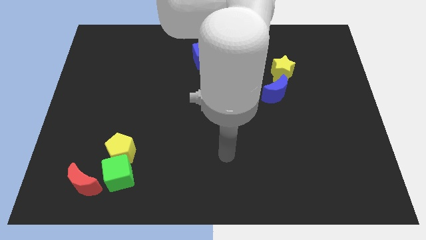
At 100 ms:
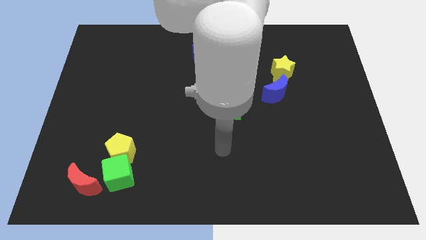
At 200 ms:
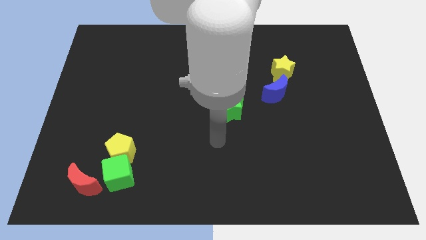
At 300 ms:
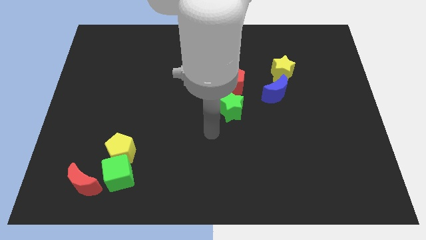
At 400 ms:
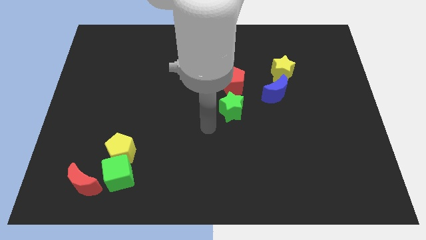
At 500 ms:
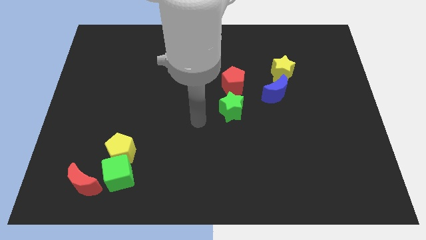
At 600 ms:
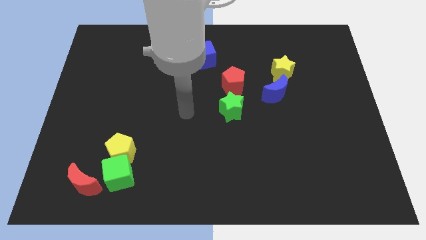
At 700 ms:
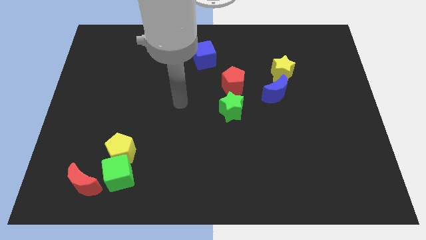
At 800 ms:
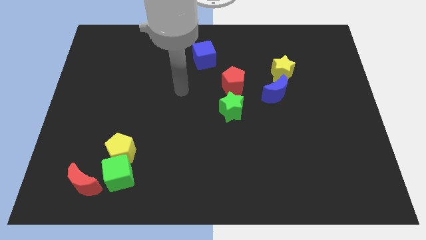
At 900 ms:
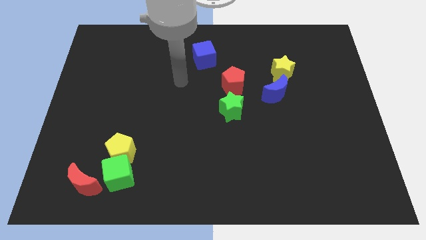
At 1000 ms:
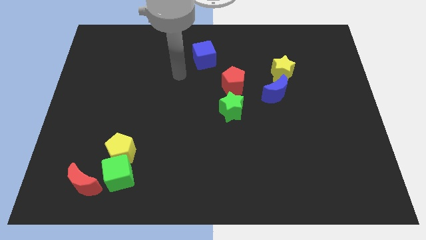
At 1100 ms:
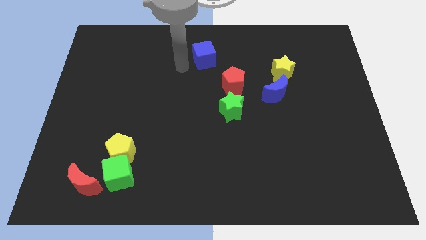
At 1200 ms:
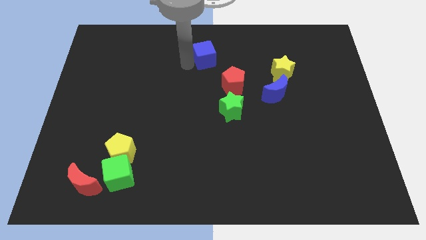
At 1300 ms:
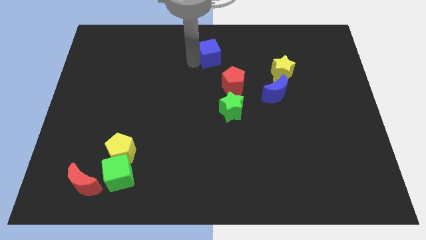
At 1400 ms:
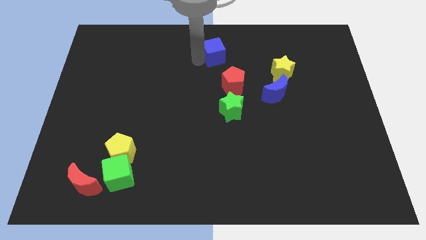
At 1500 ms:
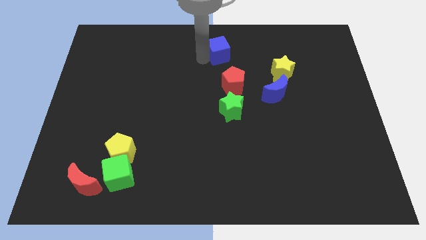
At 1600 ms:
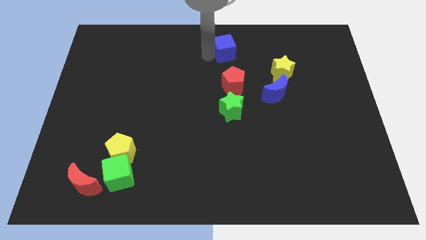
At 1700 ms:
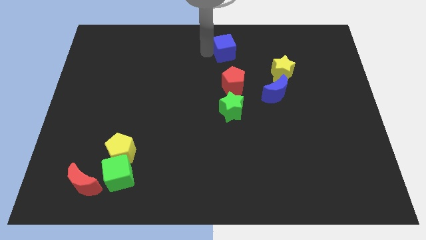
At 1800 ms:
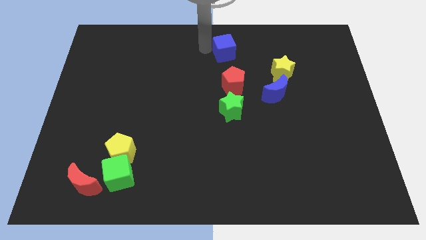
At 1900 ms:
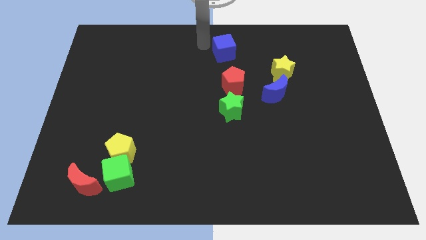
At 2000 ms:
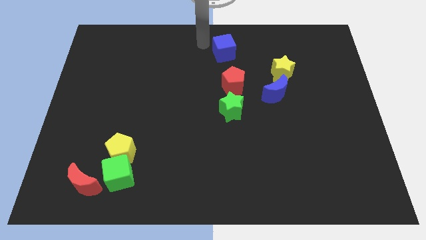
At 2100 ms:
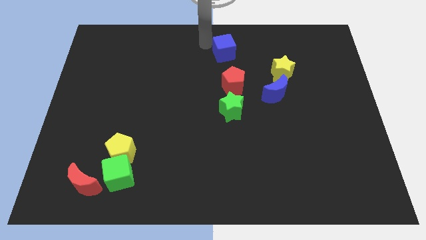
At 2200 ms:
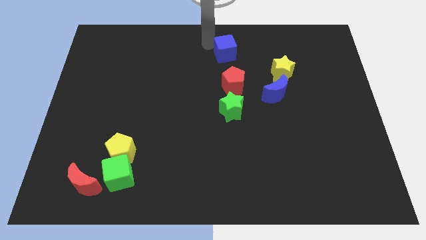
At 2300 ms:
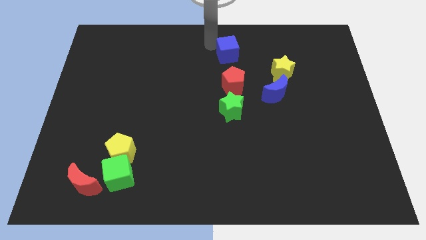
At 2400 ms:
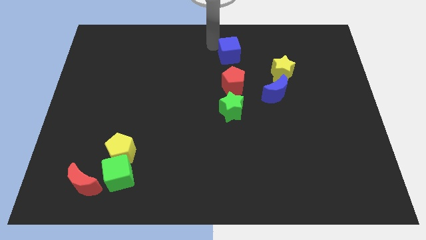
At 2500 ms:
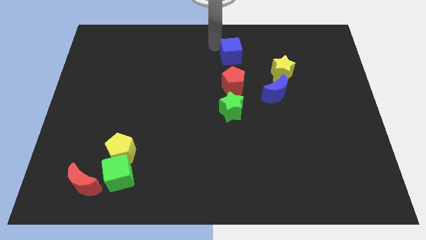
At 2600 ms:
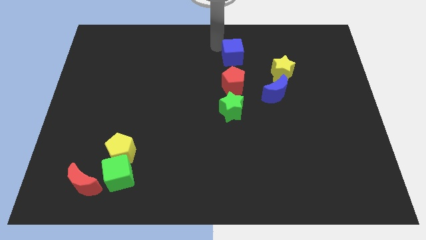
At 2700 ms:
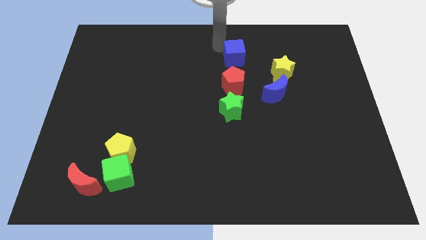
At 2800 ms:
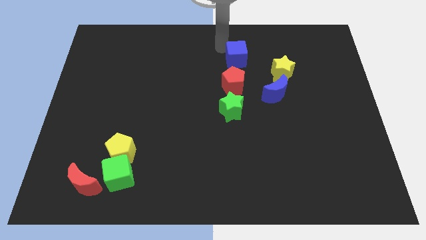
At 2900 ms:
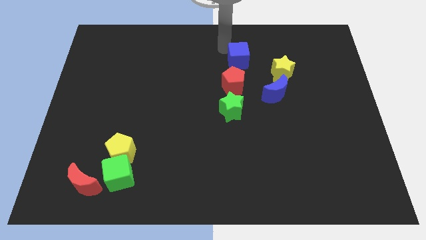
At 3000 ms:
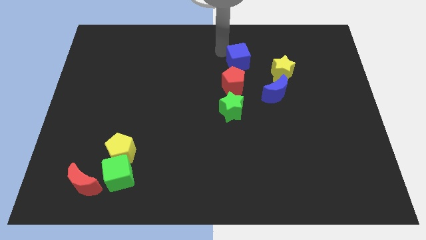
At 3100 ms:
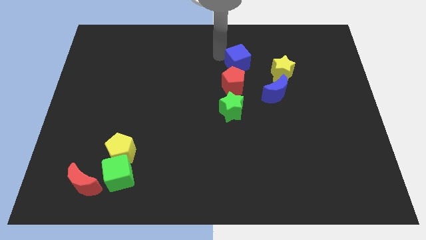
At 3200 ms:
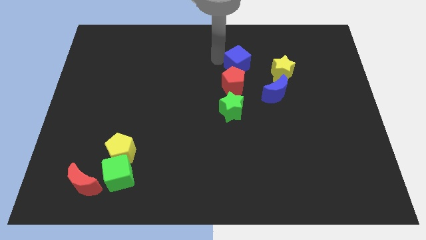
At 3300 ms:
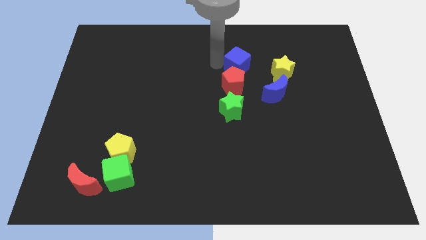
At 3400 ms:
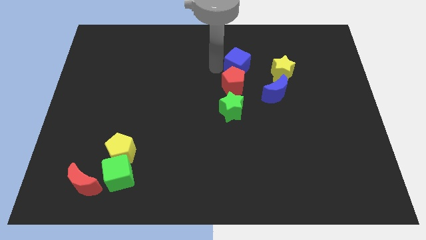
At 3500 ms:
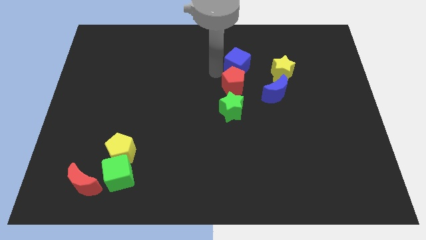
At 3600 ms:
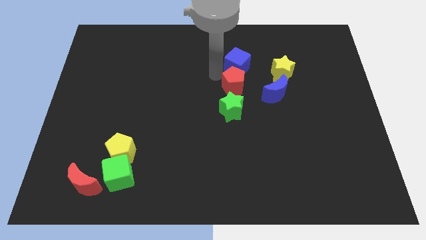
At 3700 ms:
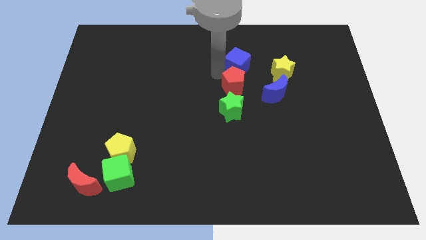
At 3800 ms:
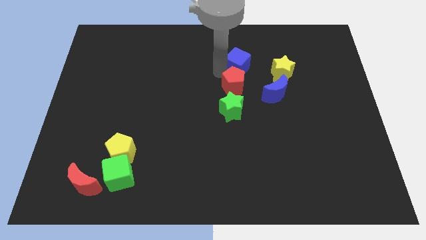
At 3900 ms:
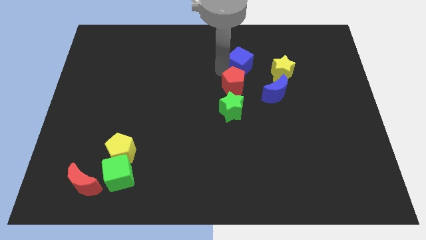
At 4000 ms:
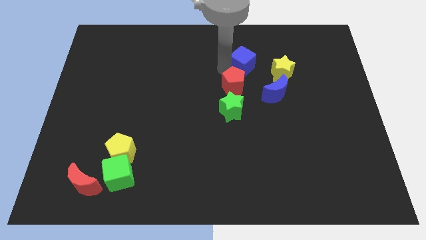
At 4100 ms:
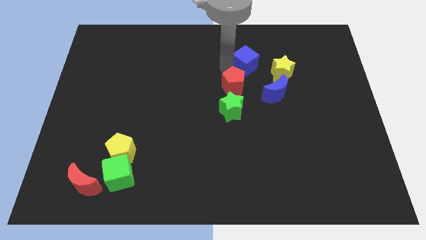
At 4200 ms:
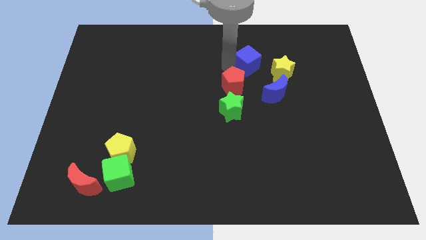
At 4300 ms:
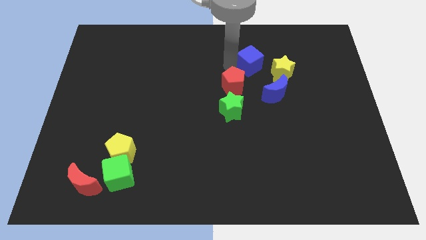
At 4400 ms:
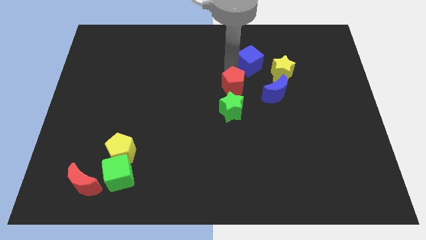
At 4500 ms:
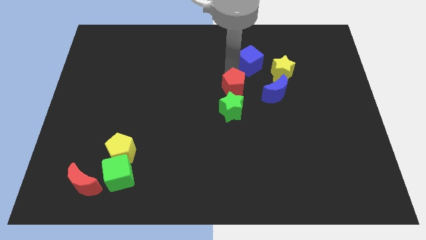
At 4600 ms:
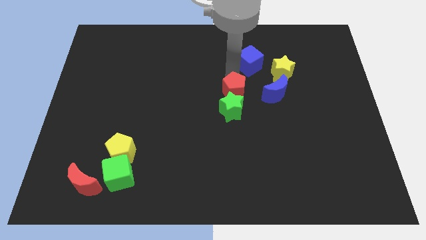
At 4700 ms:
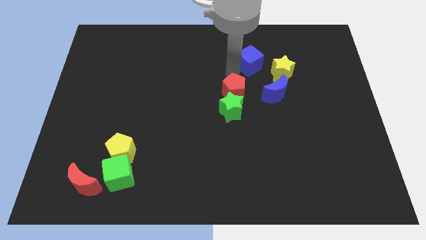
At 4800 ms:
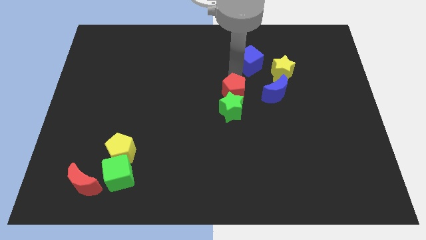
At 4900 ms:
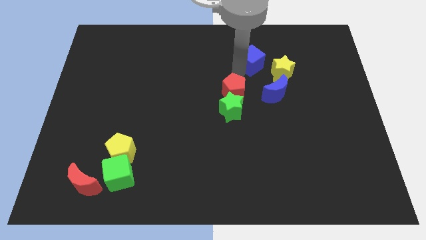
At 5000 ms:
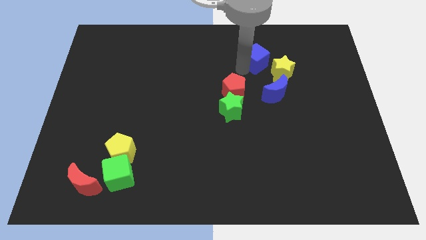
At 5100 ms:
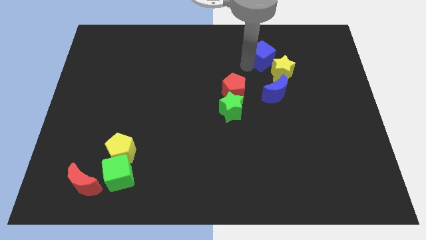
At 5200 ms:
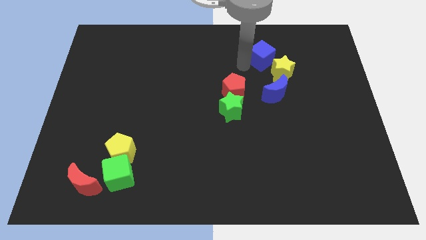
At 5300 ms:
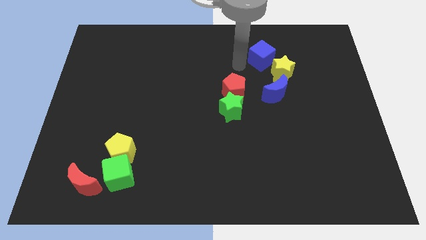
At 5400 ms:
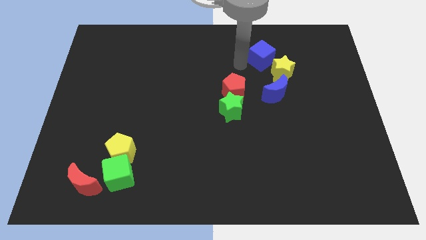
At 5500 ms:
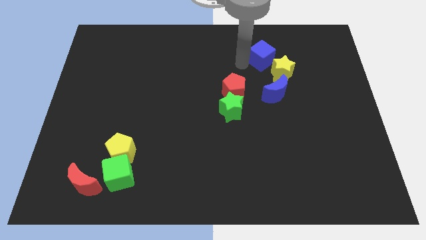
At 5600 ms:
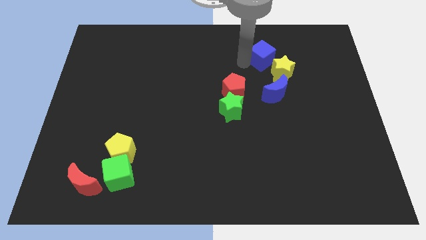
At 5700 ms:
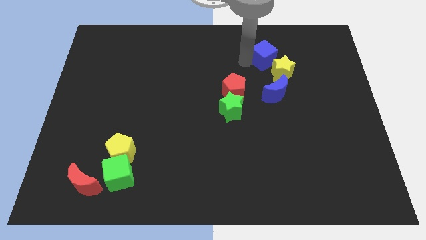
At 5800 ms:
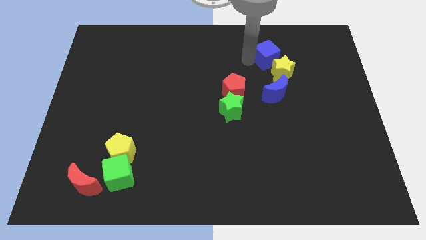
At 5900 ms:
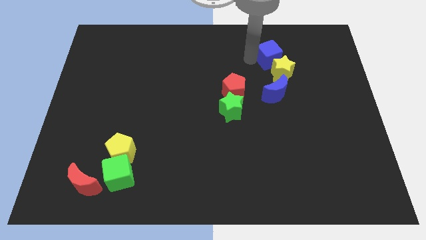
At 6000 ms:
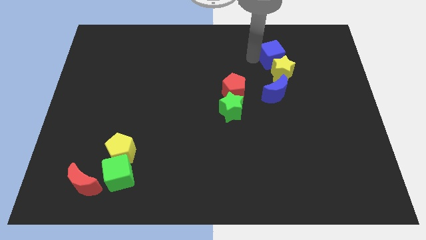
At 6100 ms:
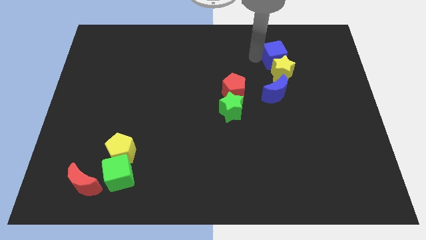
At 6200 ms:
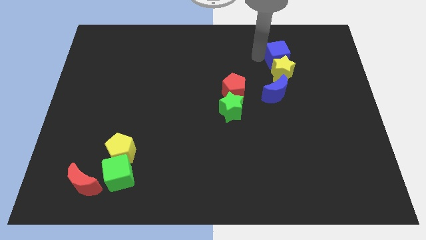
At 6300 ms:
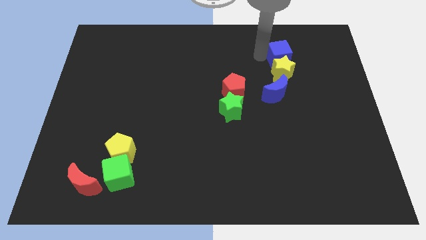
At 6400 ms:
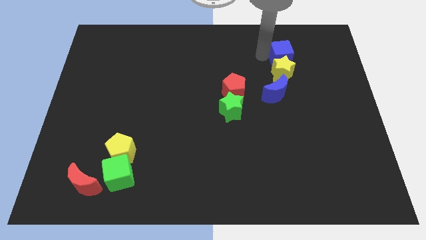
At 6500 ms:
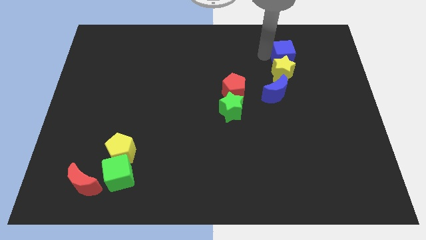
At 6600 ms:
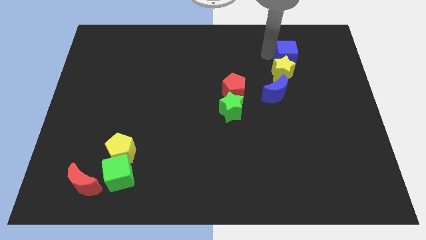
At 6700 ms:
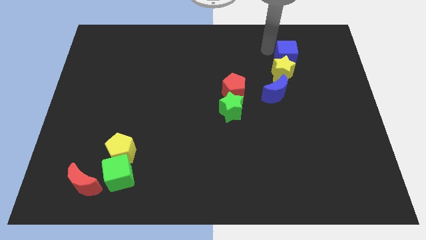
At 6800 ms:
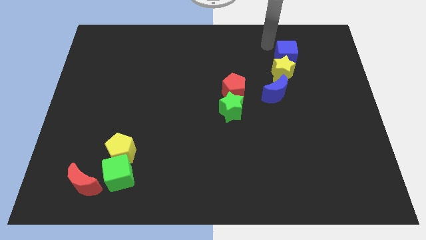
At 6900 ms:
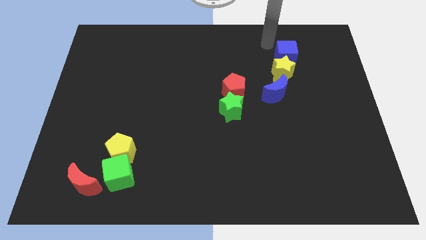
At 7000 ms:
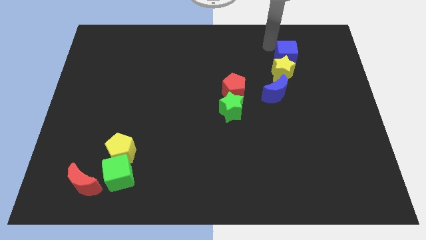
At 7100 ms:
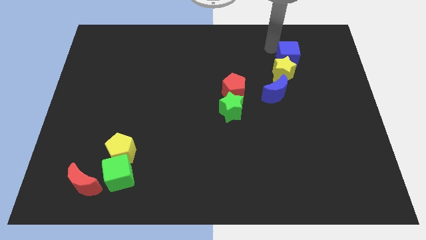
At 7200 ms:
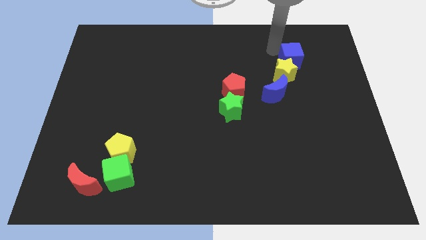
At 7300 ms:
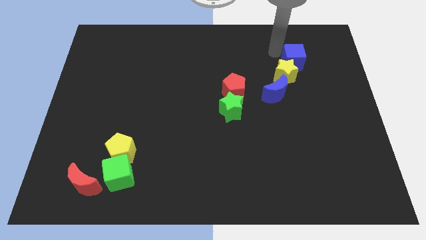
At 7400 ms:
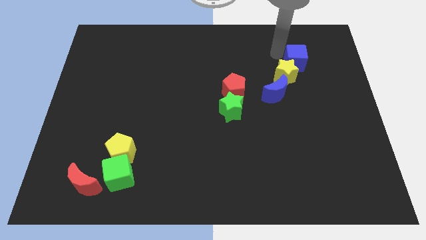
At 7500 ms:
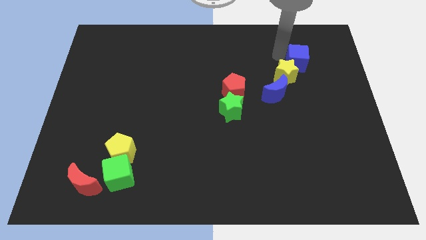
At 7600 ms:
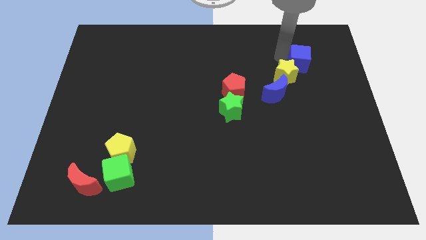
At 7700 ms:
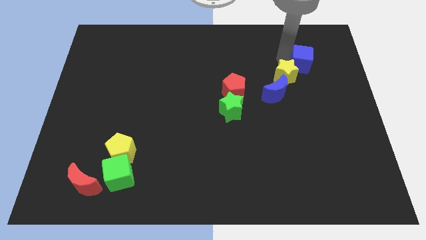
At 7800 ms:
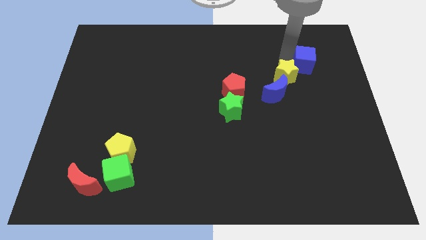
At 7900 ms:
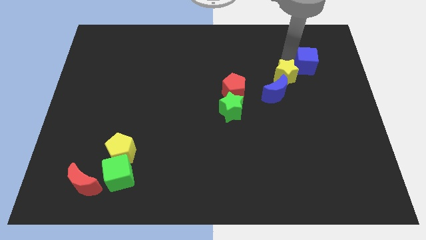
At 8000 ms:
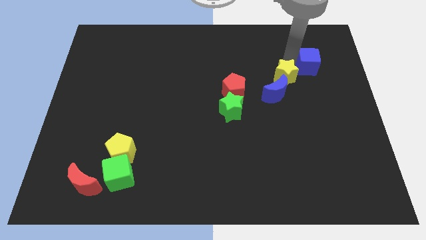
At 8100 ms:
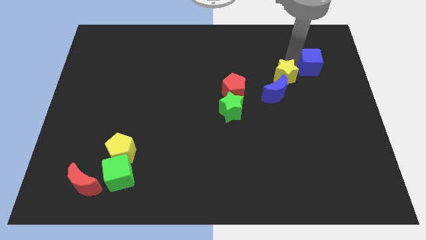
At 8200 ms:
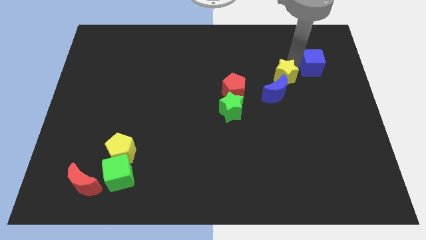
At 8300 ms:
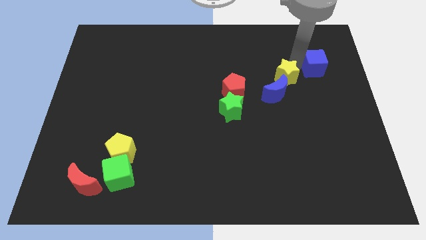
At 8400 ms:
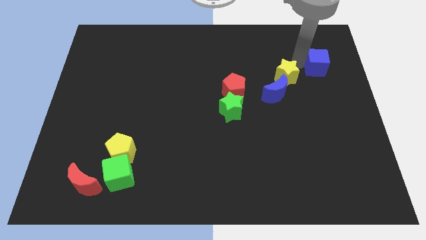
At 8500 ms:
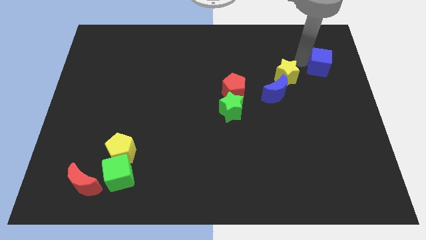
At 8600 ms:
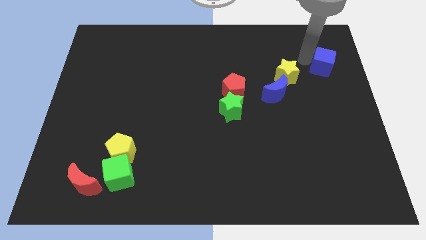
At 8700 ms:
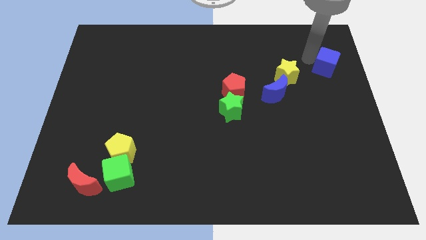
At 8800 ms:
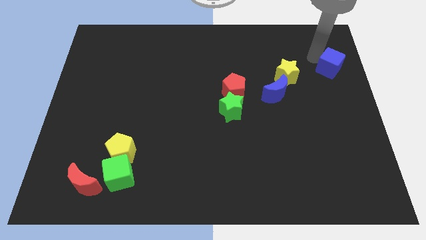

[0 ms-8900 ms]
push the blue cube to the center right
